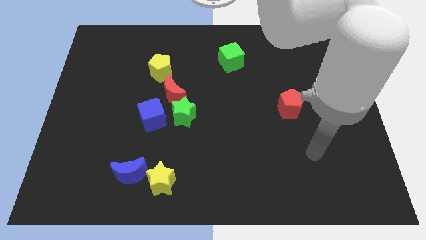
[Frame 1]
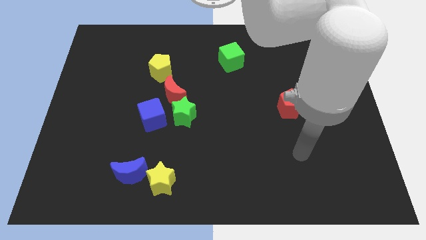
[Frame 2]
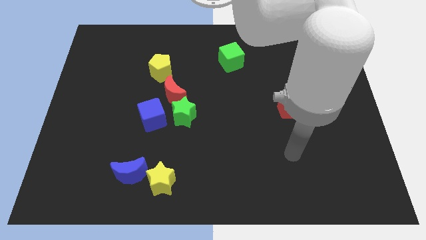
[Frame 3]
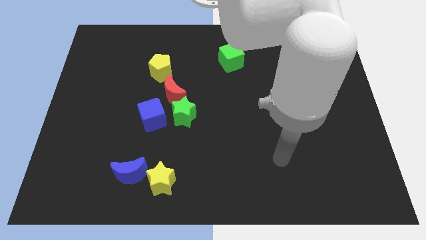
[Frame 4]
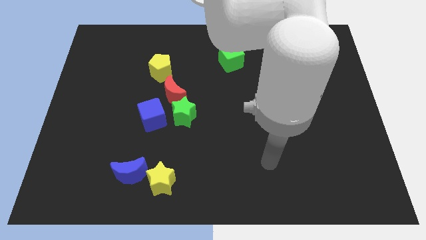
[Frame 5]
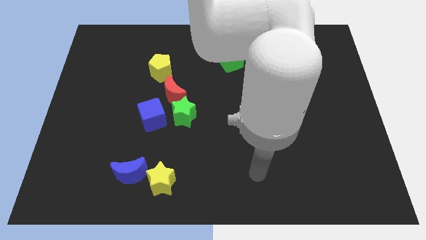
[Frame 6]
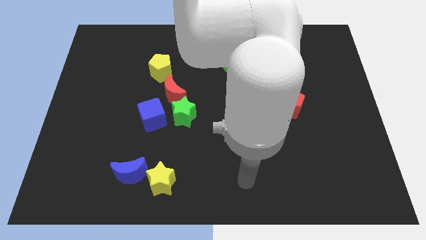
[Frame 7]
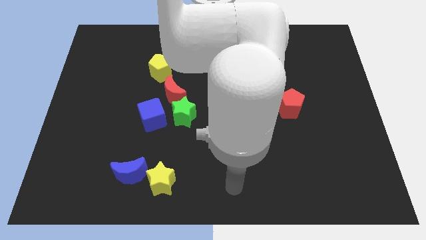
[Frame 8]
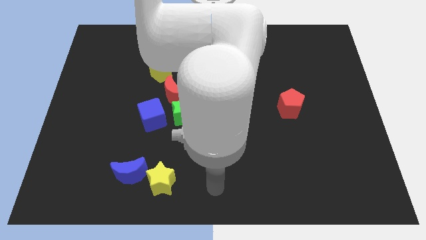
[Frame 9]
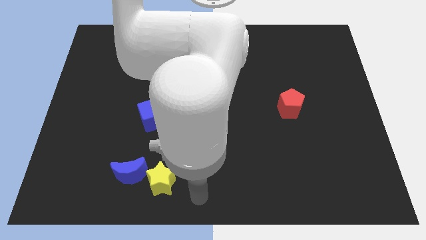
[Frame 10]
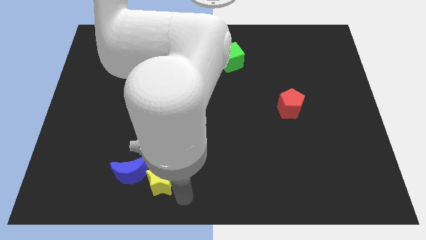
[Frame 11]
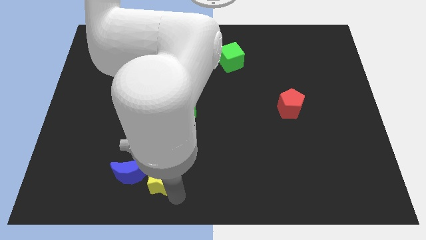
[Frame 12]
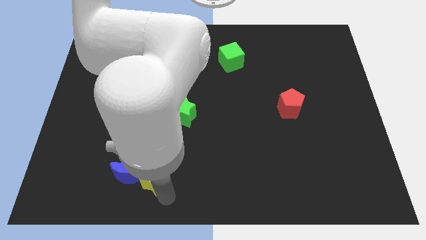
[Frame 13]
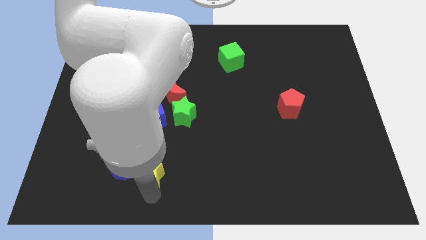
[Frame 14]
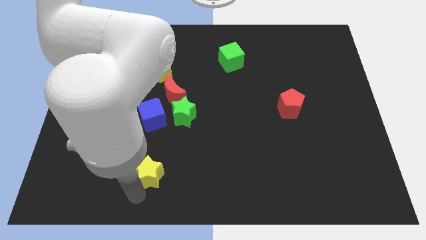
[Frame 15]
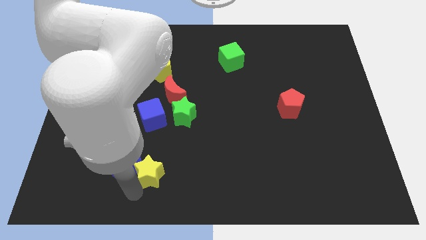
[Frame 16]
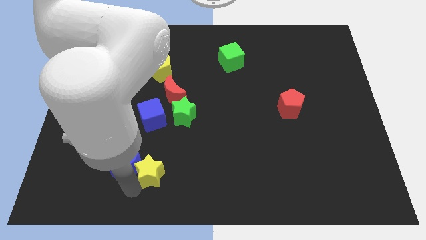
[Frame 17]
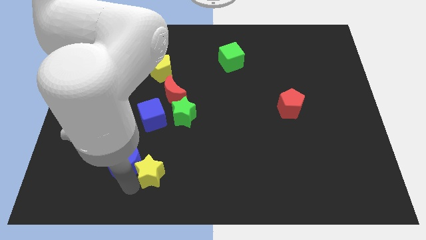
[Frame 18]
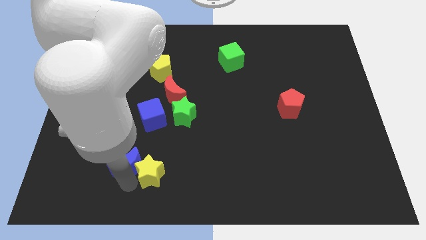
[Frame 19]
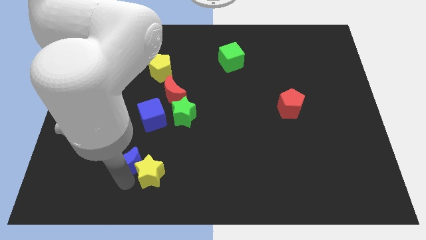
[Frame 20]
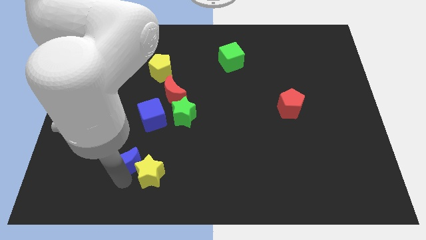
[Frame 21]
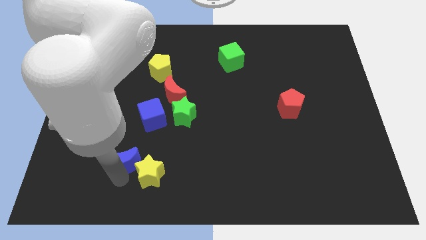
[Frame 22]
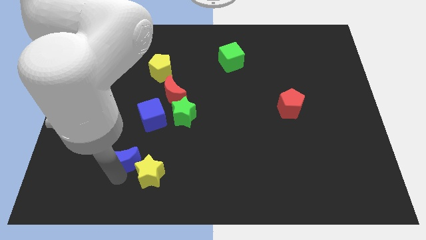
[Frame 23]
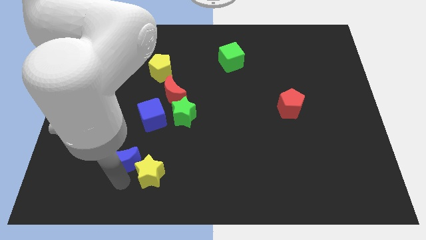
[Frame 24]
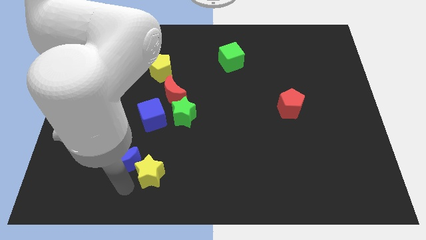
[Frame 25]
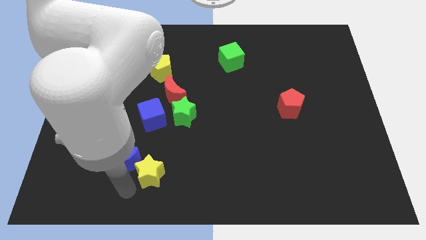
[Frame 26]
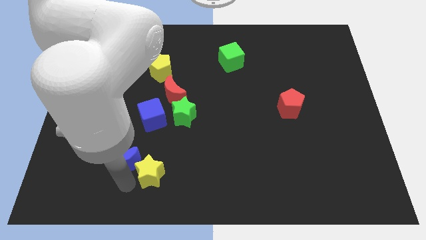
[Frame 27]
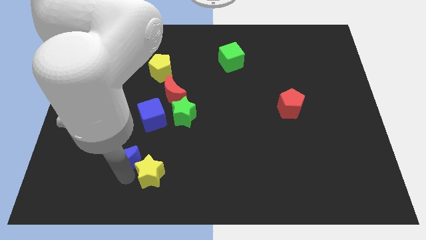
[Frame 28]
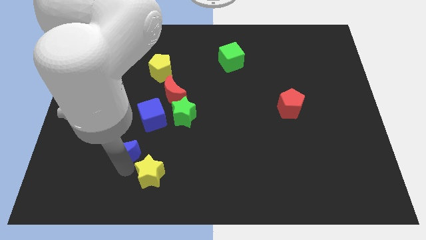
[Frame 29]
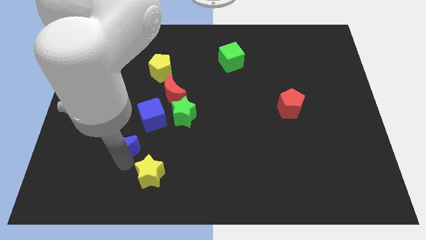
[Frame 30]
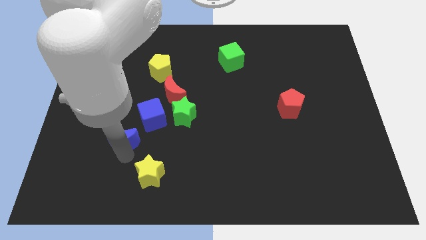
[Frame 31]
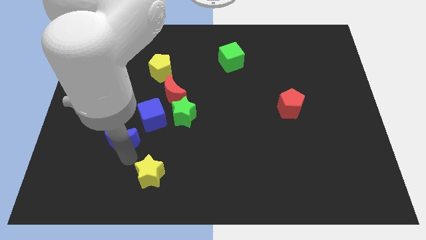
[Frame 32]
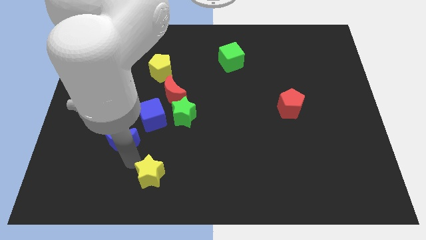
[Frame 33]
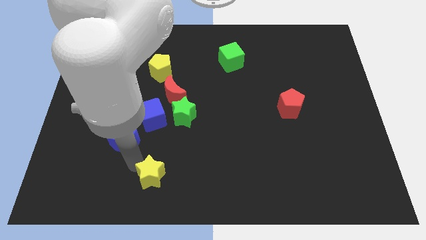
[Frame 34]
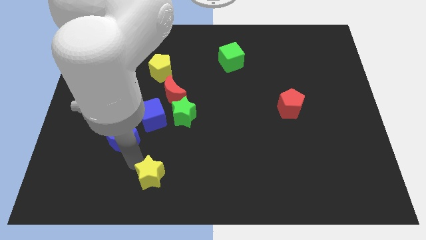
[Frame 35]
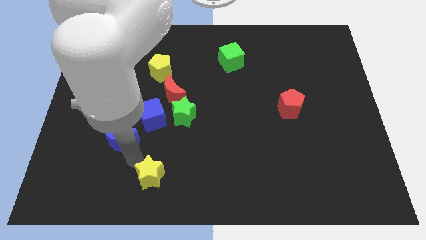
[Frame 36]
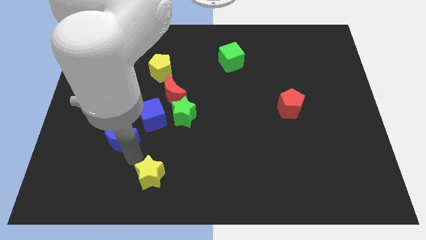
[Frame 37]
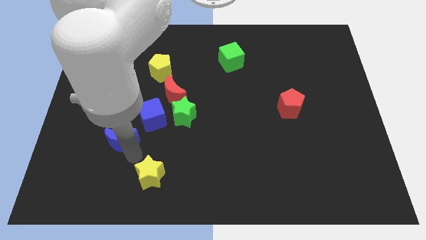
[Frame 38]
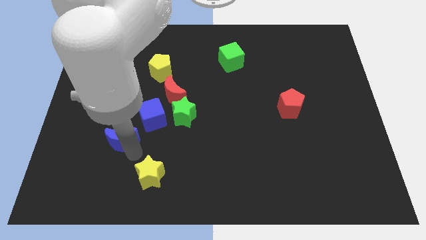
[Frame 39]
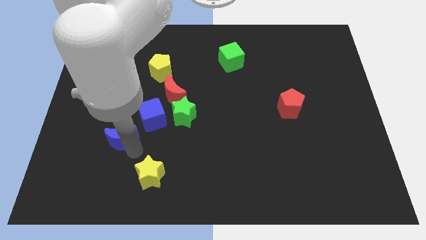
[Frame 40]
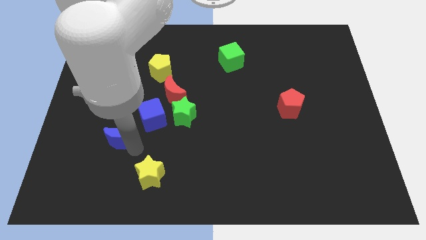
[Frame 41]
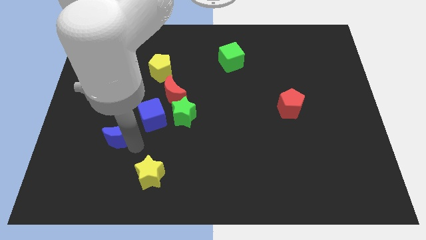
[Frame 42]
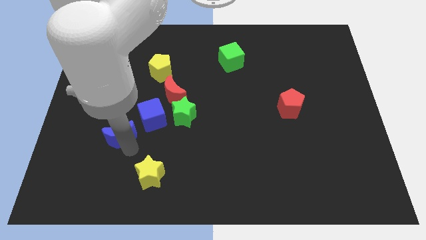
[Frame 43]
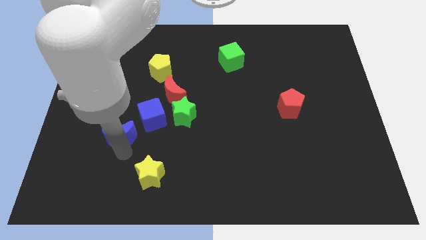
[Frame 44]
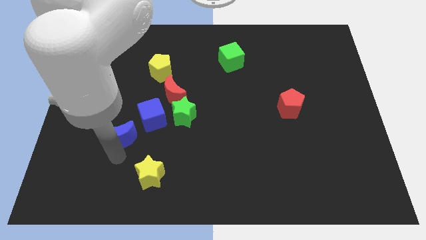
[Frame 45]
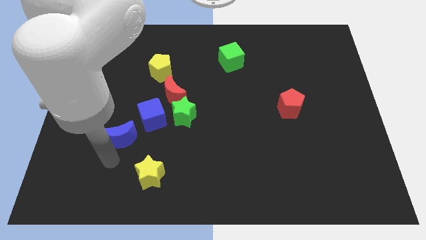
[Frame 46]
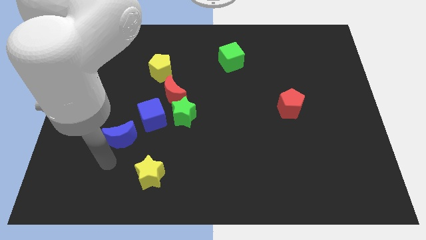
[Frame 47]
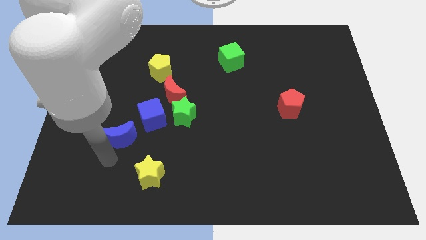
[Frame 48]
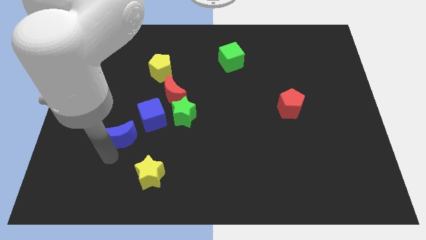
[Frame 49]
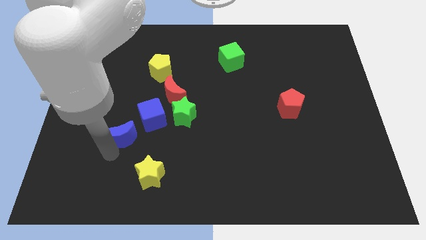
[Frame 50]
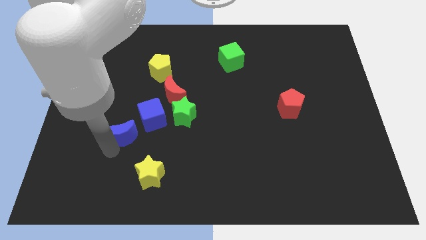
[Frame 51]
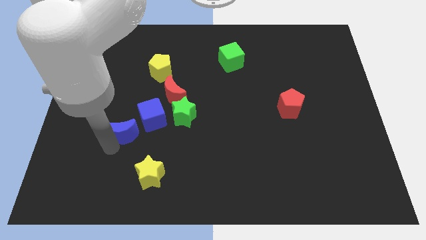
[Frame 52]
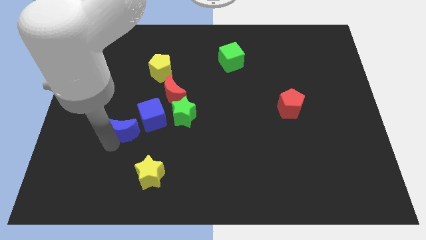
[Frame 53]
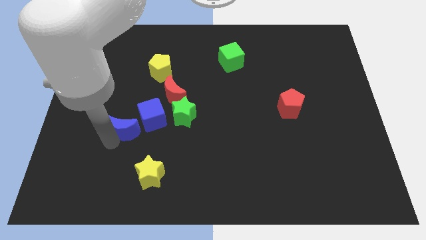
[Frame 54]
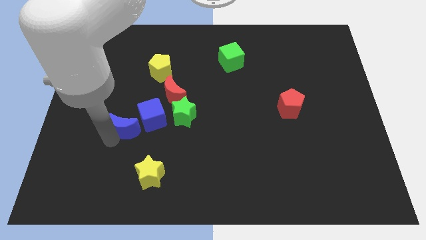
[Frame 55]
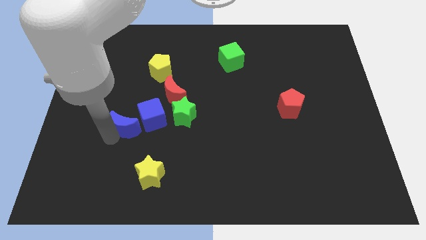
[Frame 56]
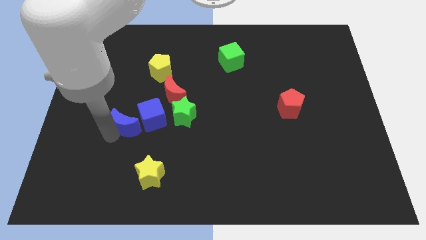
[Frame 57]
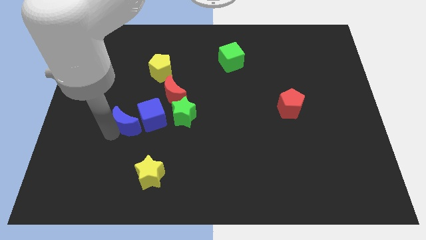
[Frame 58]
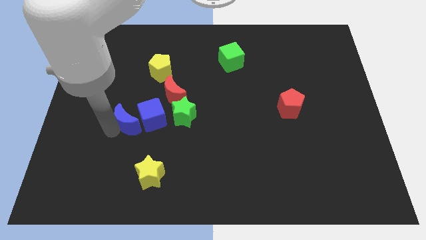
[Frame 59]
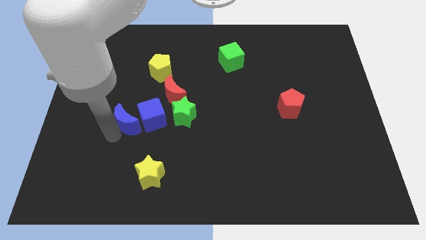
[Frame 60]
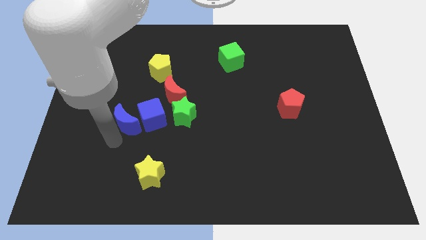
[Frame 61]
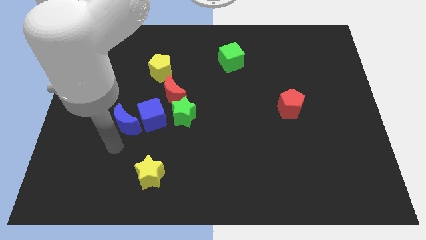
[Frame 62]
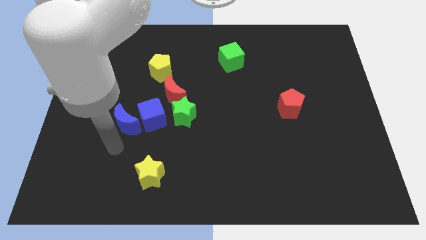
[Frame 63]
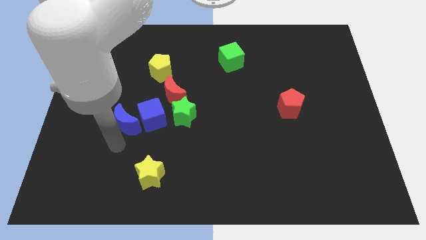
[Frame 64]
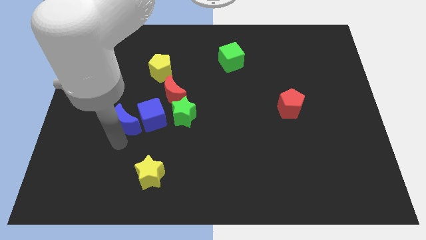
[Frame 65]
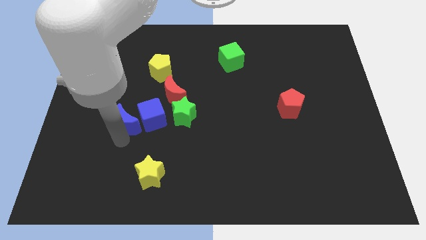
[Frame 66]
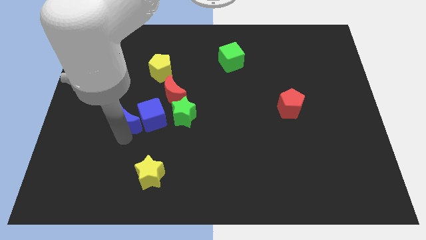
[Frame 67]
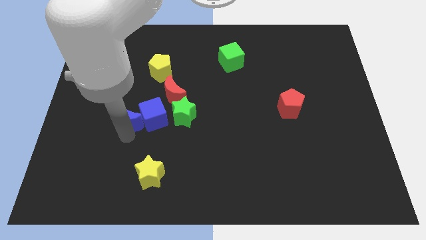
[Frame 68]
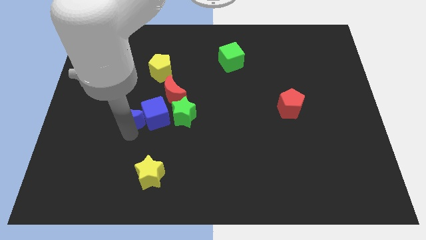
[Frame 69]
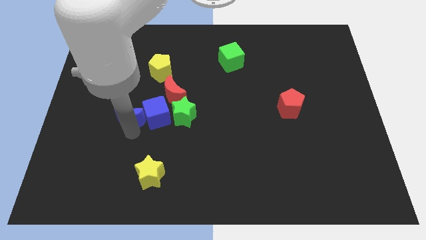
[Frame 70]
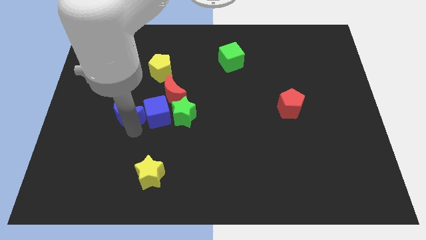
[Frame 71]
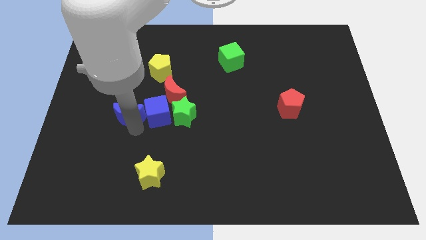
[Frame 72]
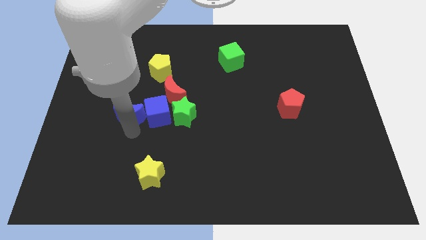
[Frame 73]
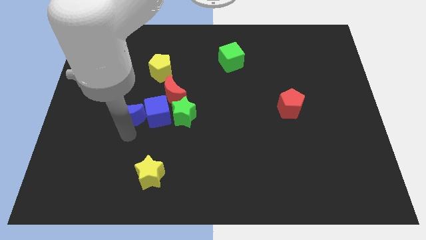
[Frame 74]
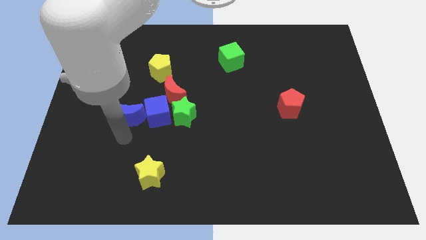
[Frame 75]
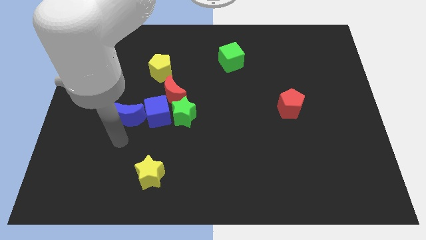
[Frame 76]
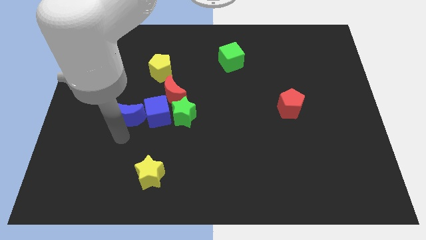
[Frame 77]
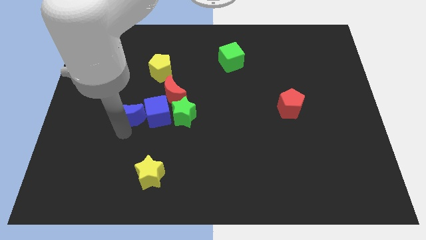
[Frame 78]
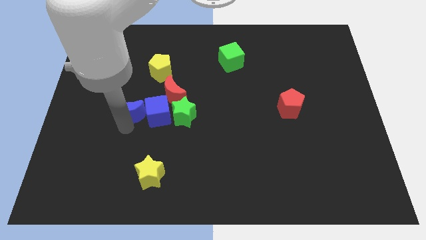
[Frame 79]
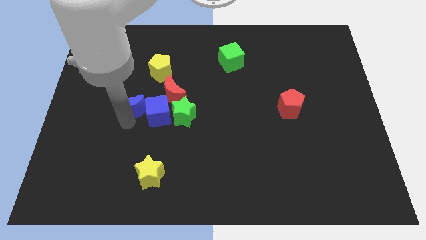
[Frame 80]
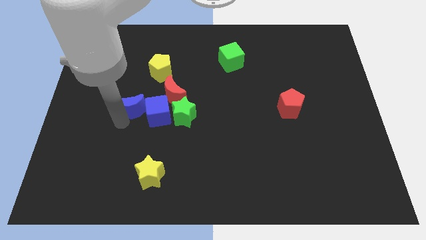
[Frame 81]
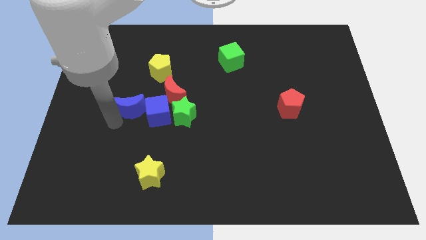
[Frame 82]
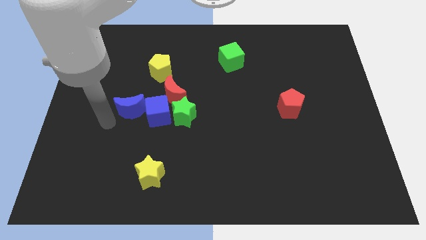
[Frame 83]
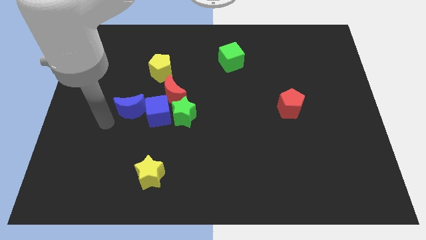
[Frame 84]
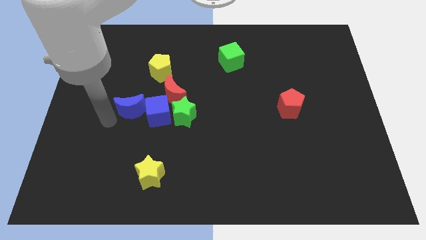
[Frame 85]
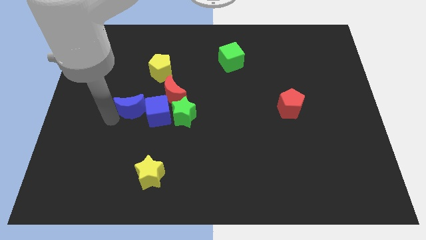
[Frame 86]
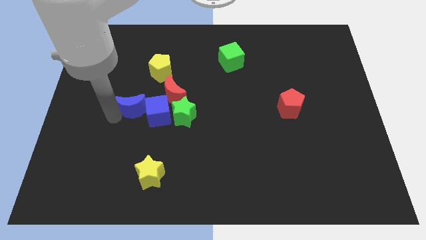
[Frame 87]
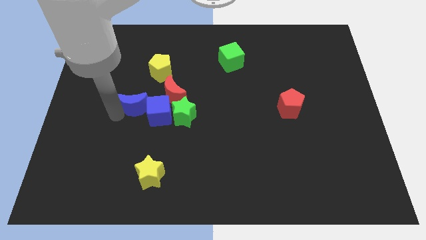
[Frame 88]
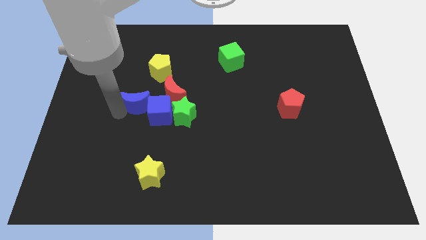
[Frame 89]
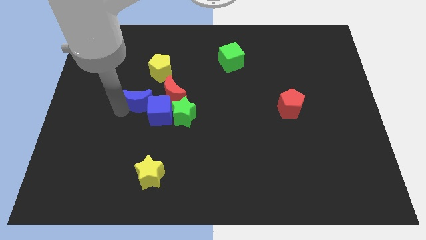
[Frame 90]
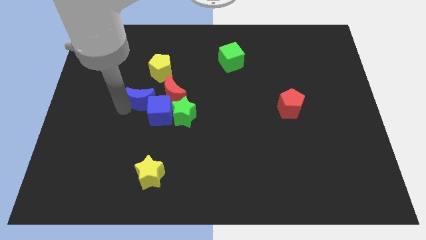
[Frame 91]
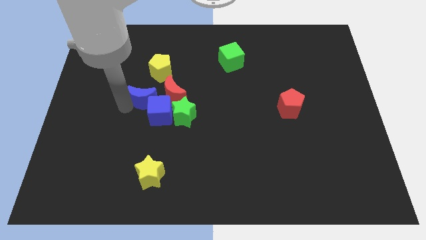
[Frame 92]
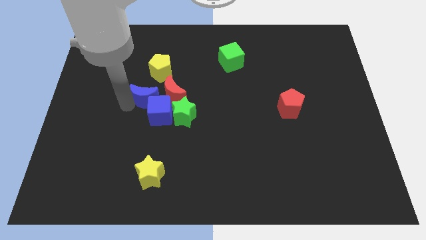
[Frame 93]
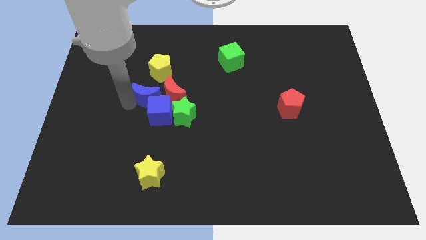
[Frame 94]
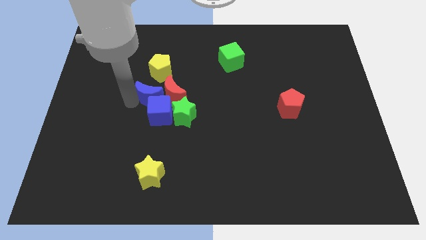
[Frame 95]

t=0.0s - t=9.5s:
put the blue moon towards the red moon
